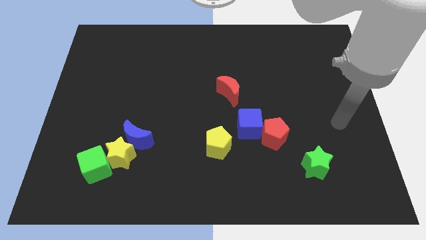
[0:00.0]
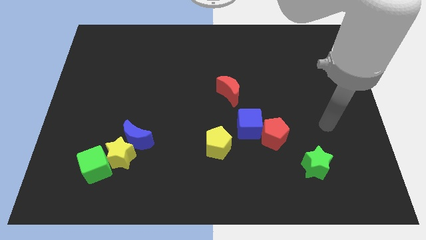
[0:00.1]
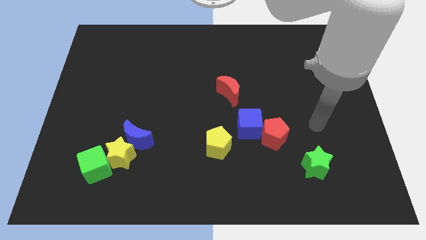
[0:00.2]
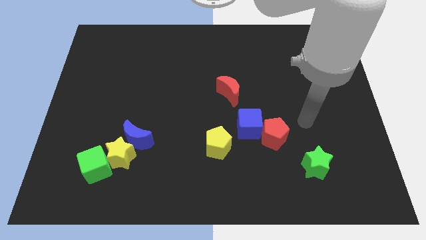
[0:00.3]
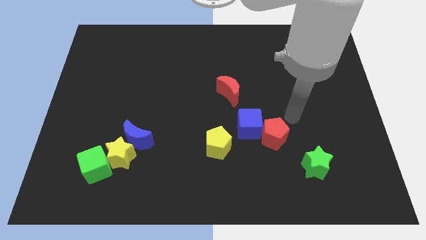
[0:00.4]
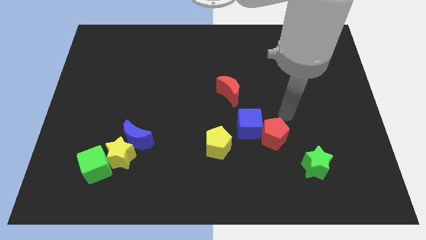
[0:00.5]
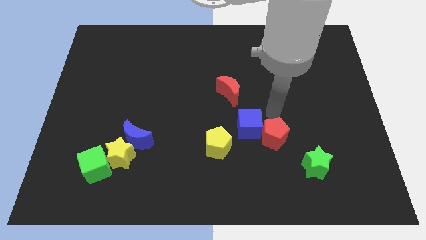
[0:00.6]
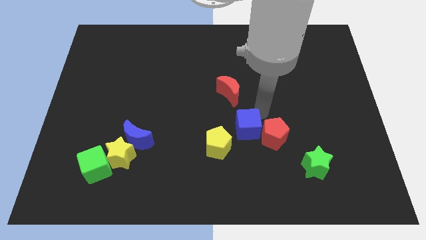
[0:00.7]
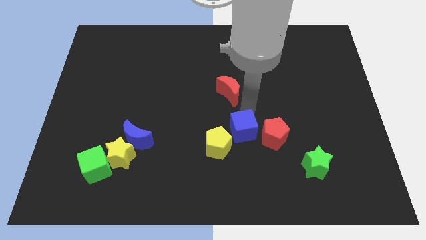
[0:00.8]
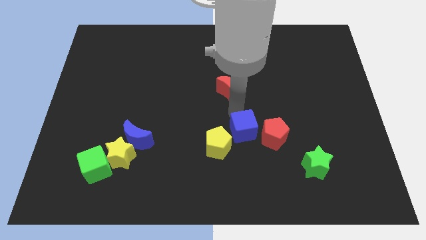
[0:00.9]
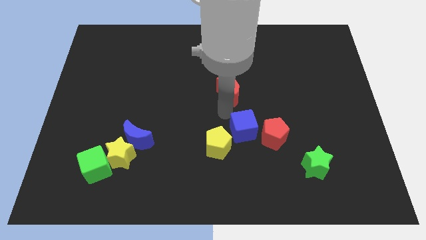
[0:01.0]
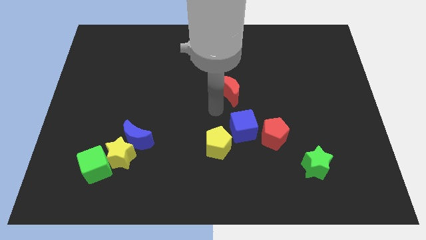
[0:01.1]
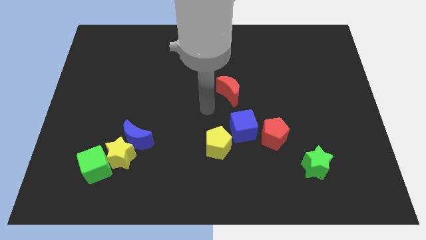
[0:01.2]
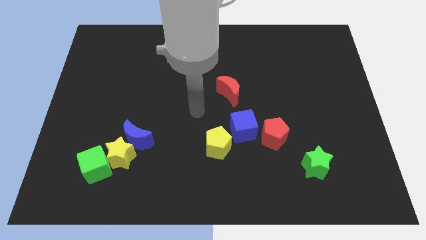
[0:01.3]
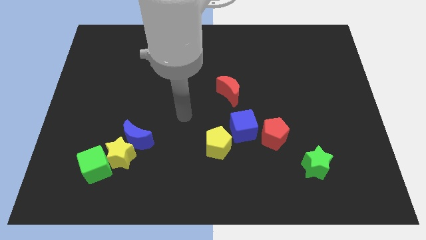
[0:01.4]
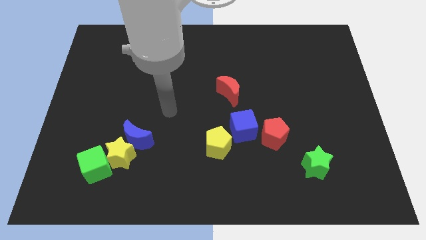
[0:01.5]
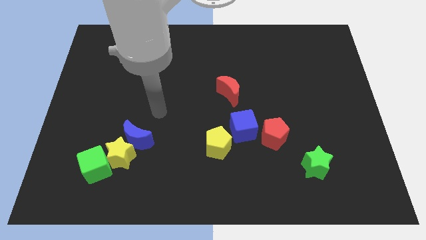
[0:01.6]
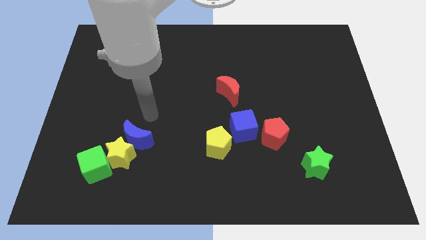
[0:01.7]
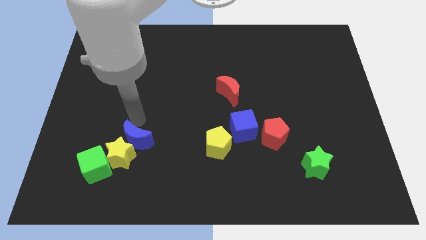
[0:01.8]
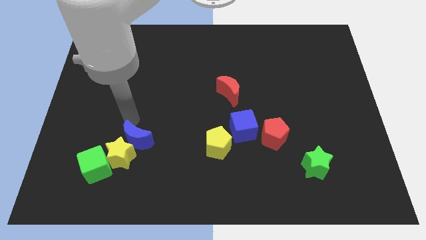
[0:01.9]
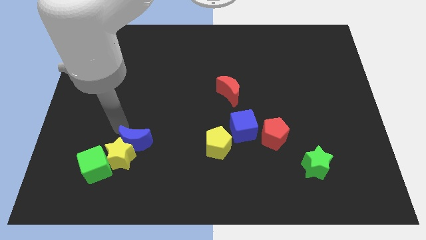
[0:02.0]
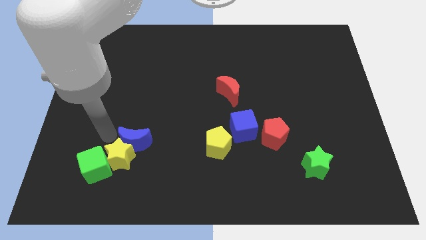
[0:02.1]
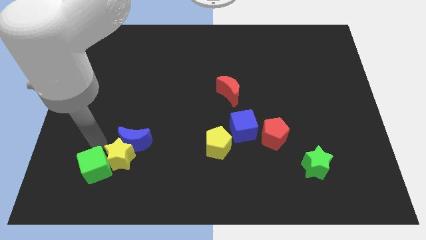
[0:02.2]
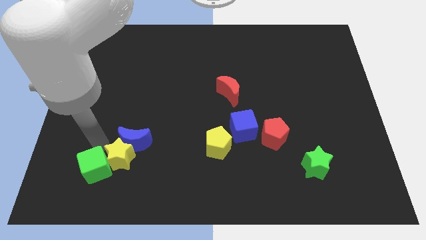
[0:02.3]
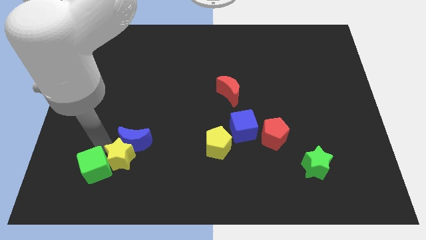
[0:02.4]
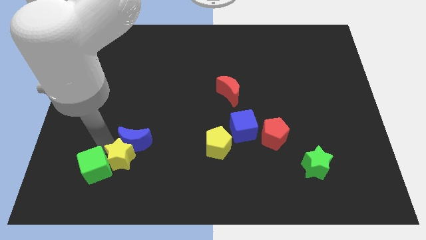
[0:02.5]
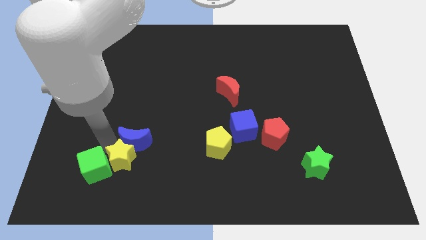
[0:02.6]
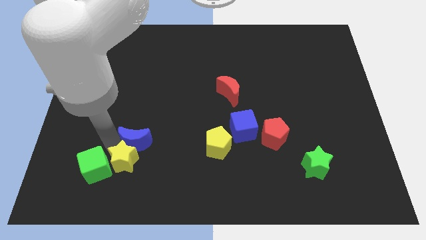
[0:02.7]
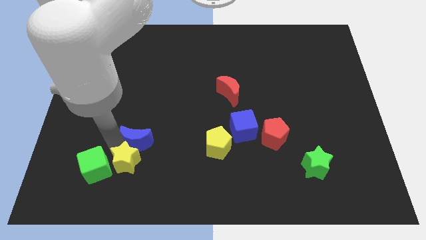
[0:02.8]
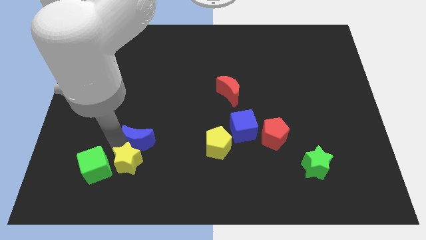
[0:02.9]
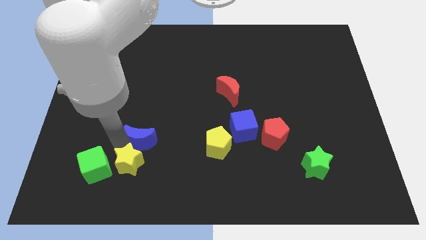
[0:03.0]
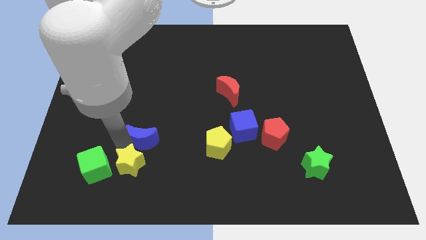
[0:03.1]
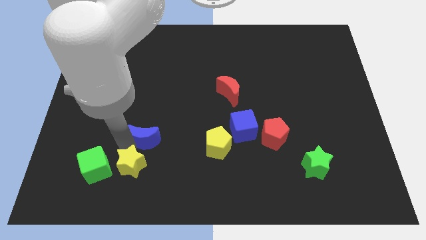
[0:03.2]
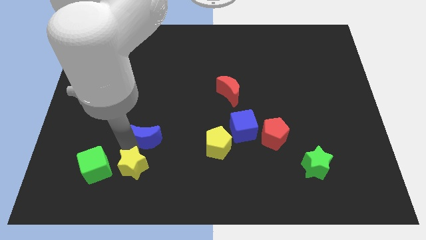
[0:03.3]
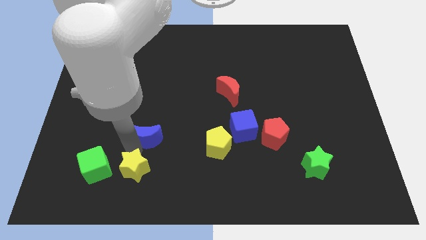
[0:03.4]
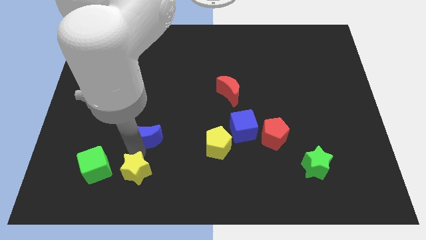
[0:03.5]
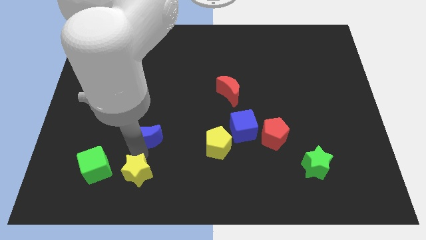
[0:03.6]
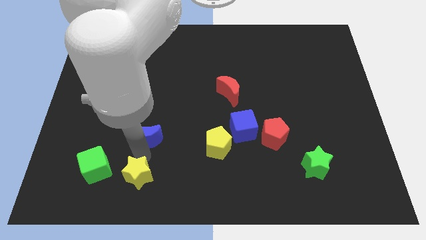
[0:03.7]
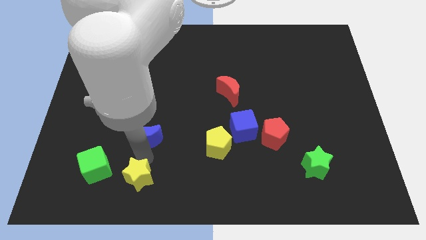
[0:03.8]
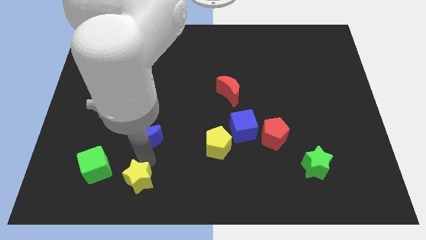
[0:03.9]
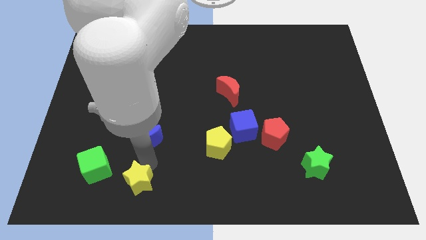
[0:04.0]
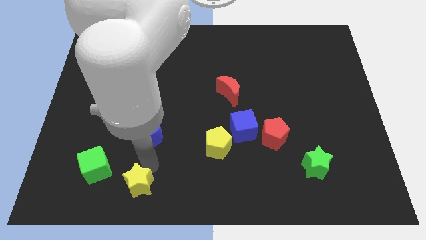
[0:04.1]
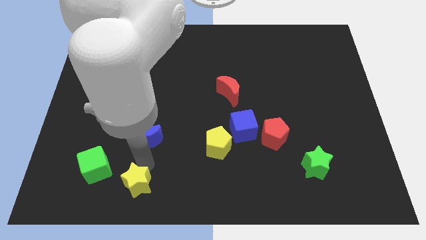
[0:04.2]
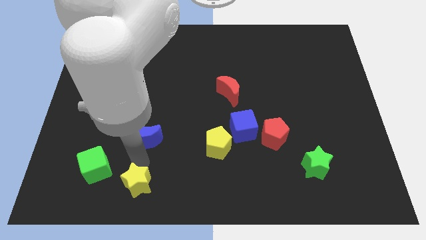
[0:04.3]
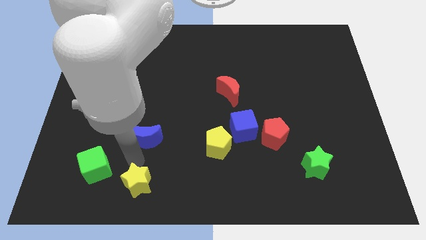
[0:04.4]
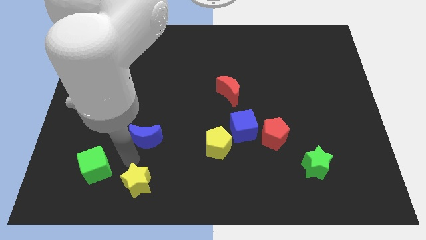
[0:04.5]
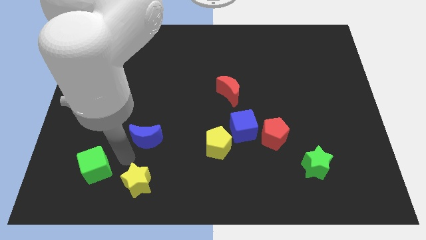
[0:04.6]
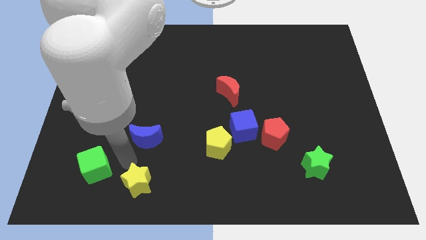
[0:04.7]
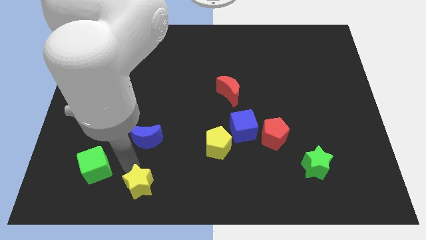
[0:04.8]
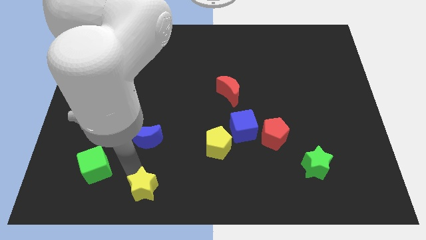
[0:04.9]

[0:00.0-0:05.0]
move the yellow star away from the blue moon and green cube

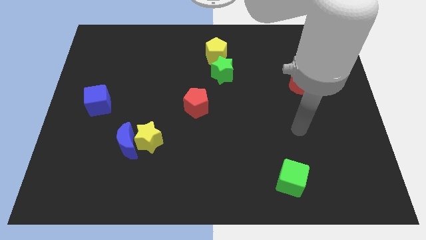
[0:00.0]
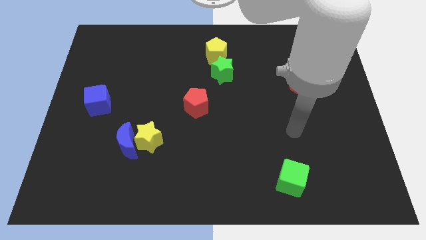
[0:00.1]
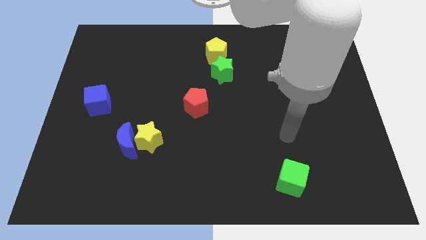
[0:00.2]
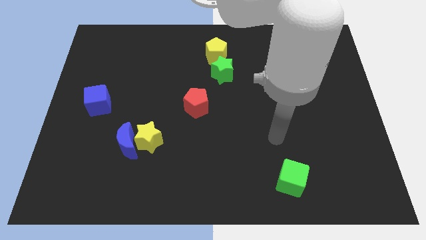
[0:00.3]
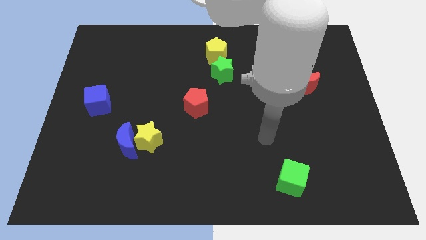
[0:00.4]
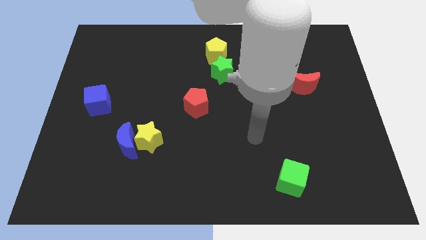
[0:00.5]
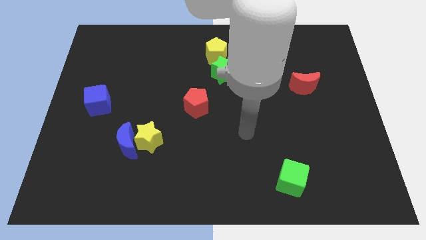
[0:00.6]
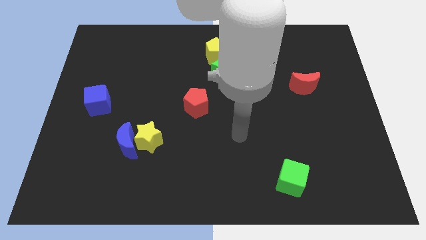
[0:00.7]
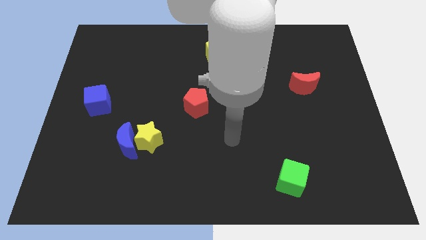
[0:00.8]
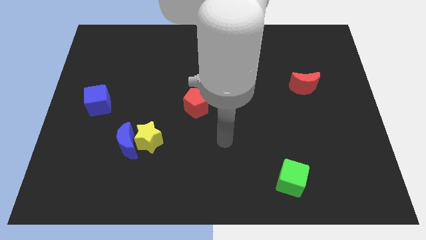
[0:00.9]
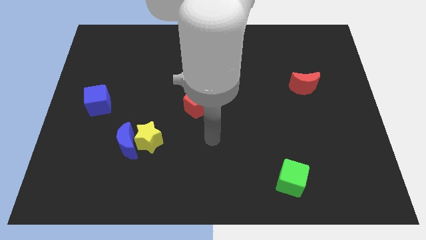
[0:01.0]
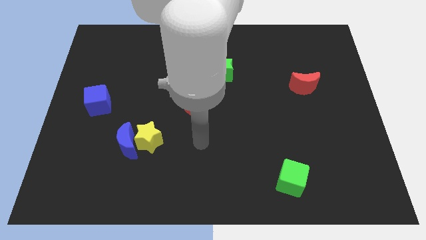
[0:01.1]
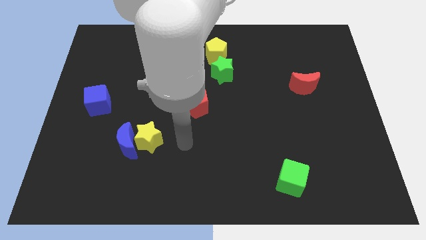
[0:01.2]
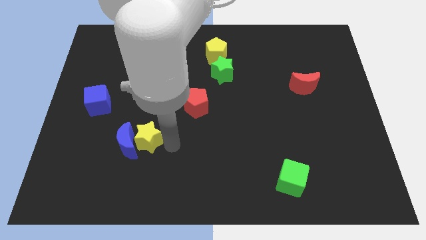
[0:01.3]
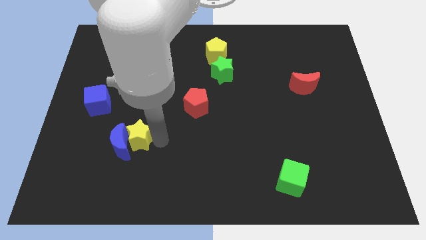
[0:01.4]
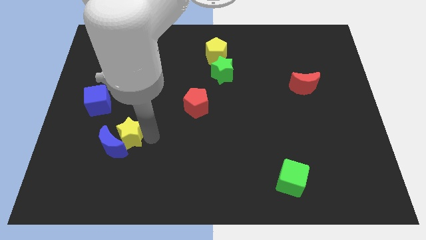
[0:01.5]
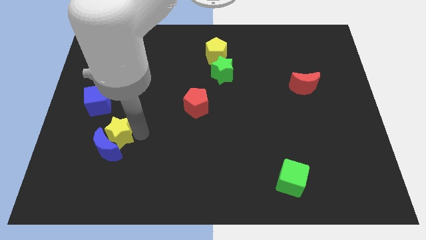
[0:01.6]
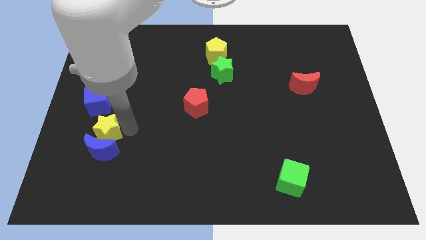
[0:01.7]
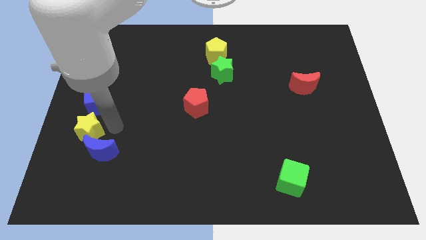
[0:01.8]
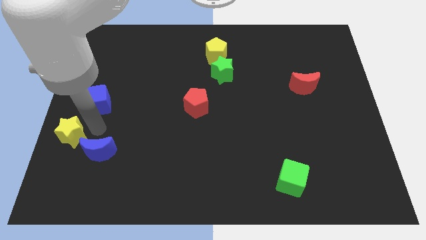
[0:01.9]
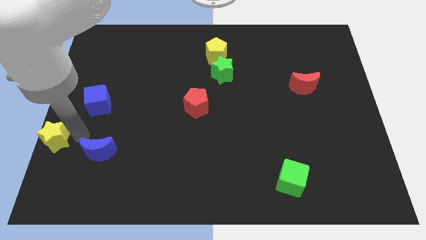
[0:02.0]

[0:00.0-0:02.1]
separate the blue moon from the yellow star

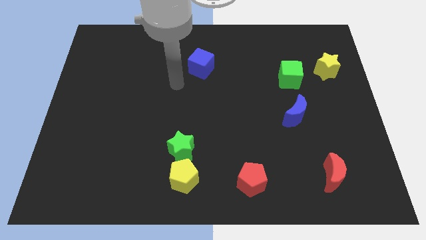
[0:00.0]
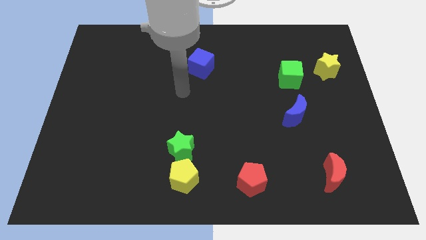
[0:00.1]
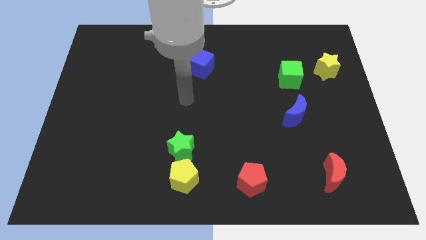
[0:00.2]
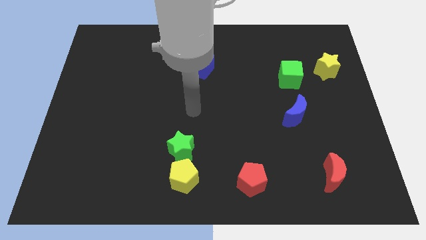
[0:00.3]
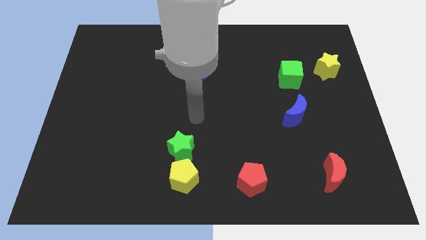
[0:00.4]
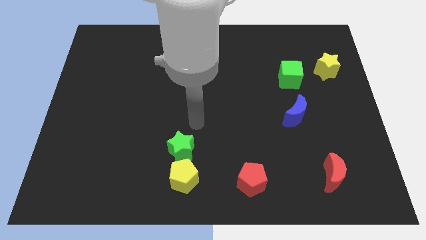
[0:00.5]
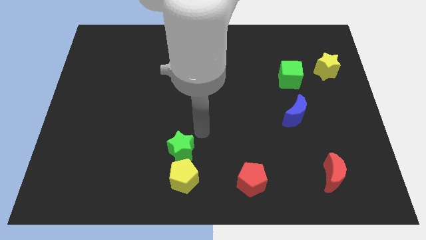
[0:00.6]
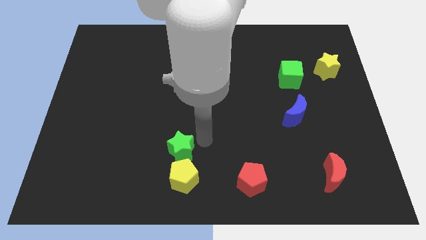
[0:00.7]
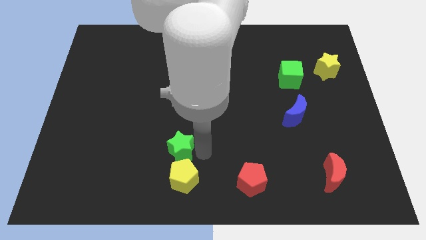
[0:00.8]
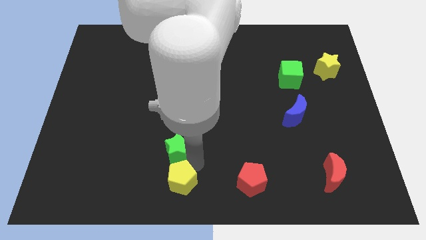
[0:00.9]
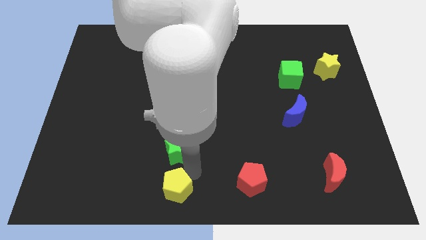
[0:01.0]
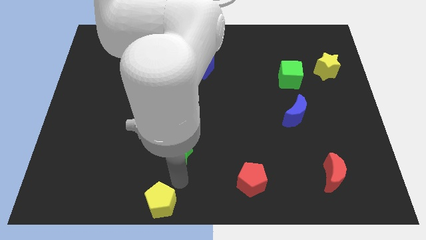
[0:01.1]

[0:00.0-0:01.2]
separate the green star from the yellow pentagon

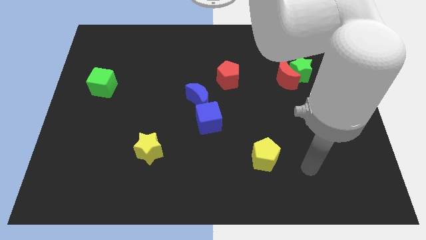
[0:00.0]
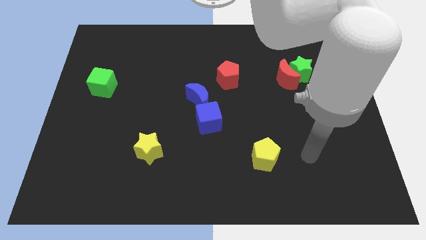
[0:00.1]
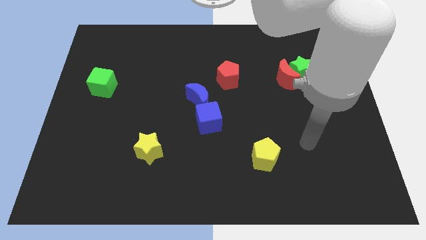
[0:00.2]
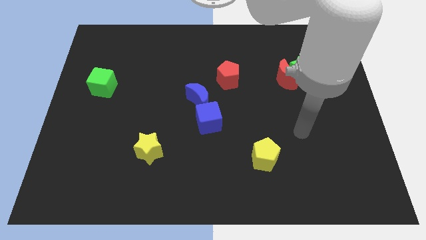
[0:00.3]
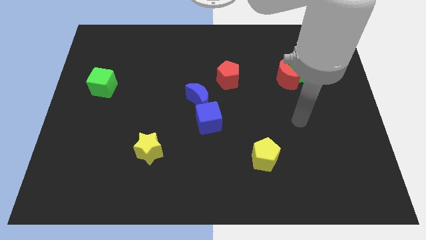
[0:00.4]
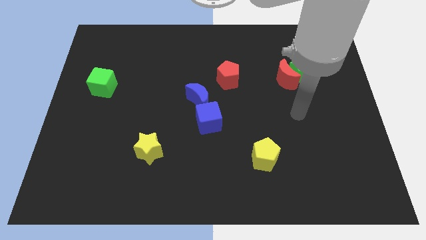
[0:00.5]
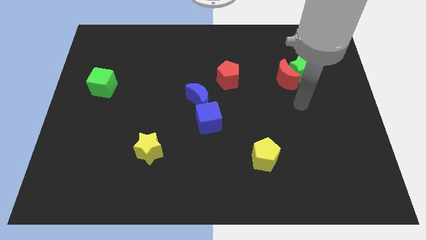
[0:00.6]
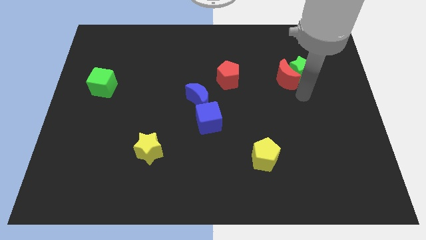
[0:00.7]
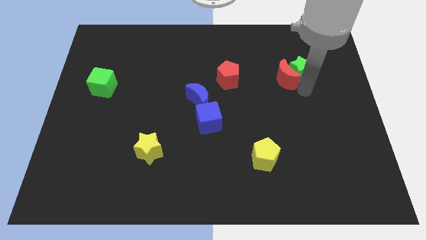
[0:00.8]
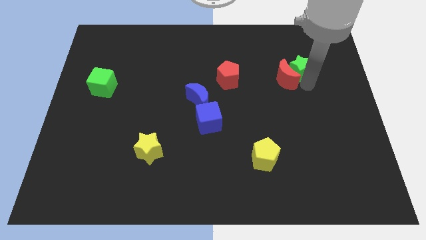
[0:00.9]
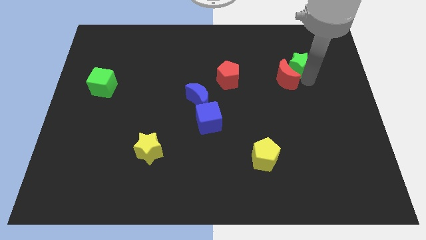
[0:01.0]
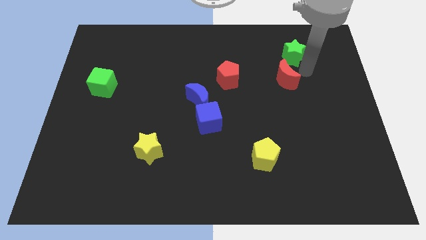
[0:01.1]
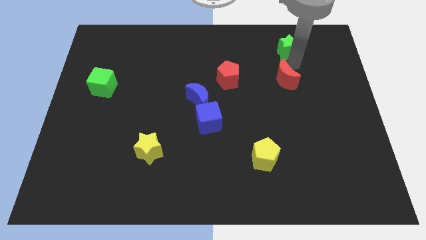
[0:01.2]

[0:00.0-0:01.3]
move the red moon away from the green star
